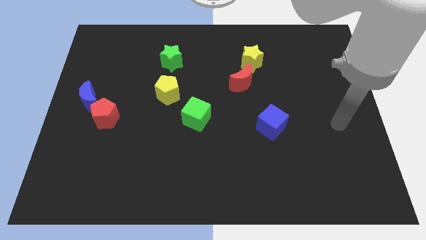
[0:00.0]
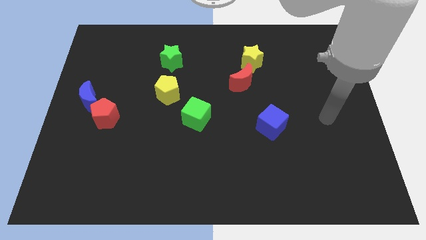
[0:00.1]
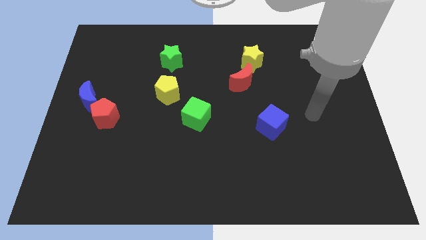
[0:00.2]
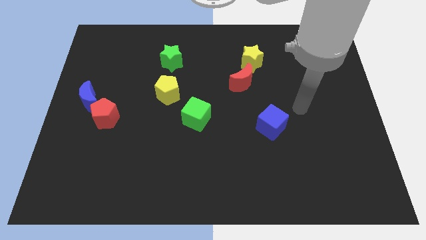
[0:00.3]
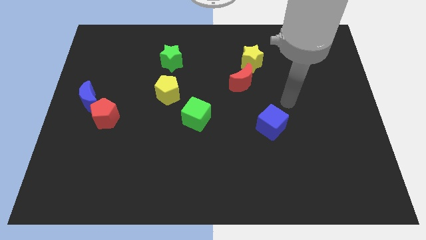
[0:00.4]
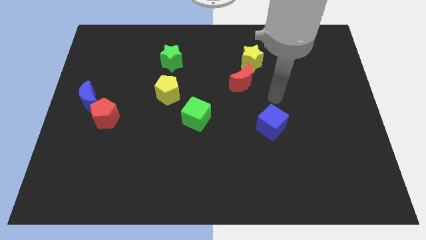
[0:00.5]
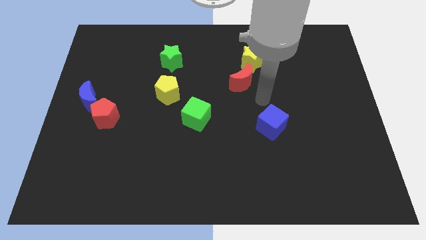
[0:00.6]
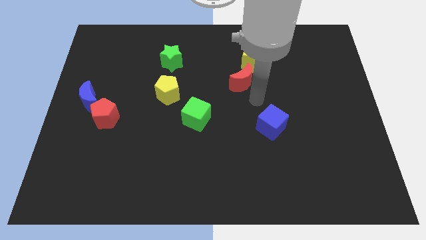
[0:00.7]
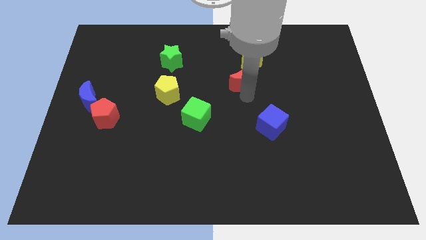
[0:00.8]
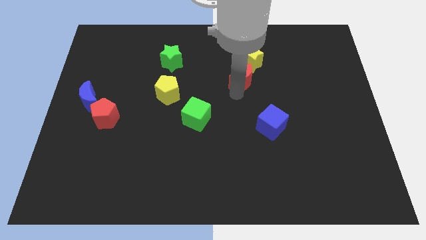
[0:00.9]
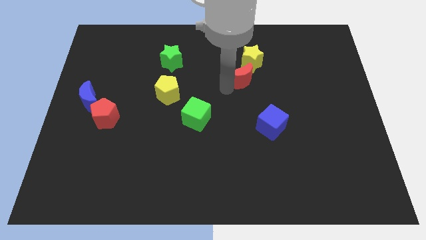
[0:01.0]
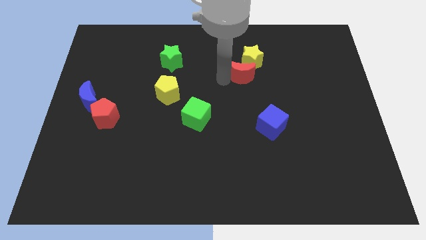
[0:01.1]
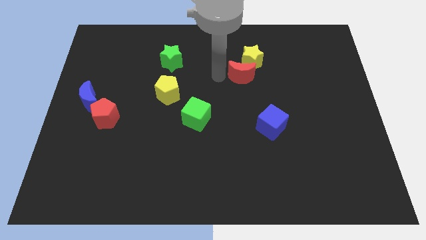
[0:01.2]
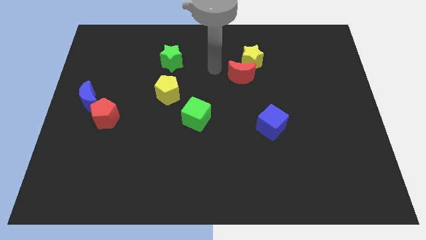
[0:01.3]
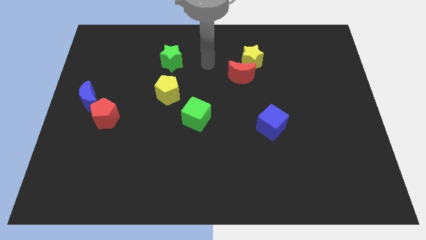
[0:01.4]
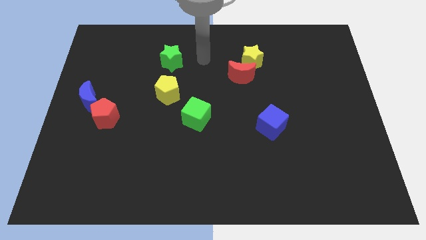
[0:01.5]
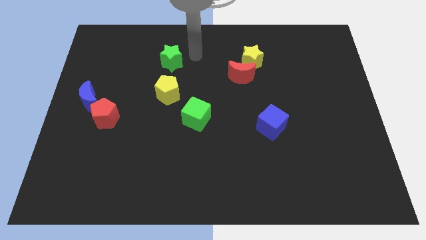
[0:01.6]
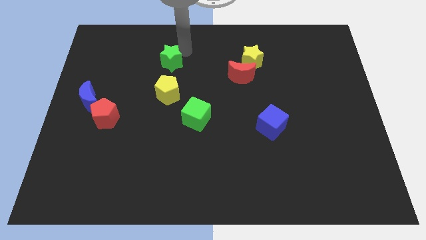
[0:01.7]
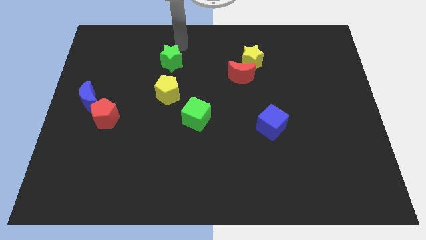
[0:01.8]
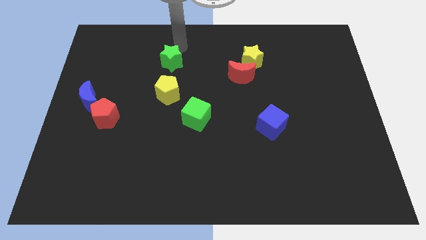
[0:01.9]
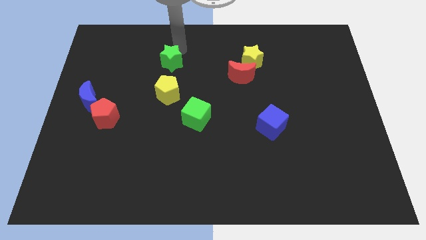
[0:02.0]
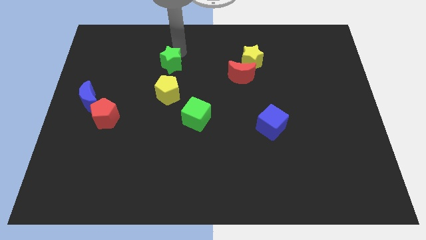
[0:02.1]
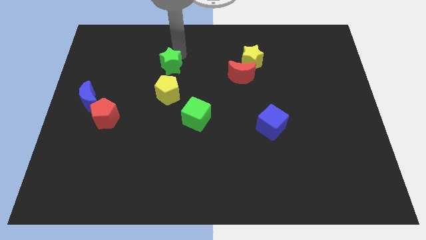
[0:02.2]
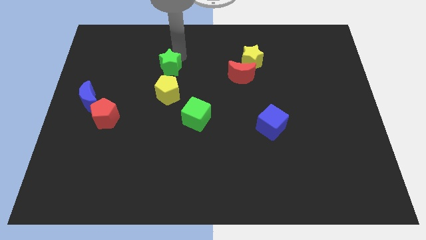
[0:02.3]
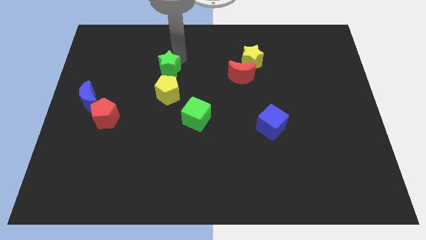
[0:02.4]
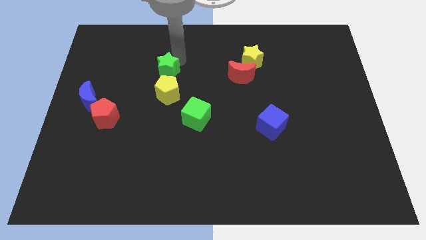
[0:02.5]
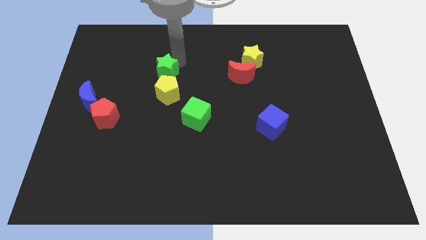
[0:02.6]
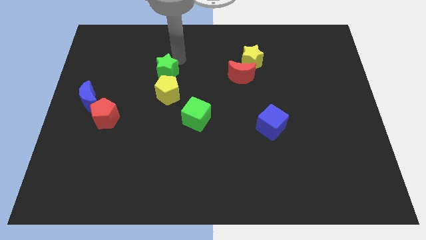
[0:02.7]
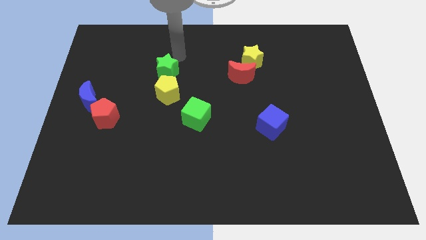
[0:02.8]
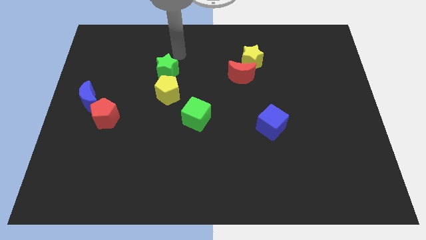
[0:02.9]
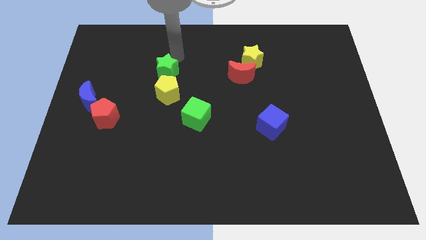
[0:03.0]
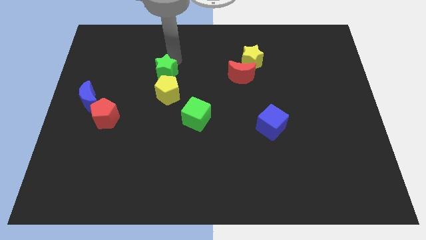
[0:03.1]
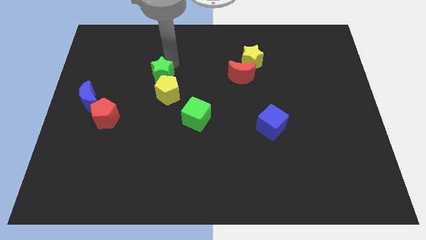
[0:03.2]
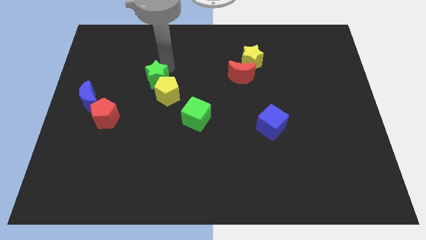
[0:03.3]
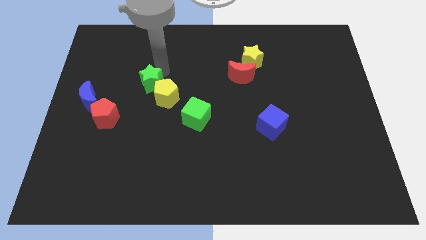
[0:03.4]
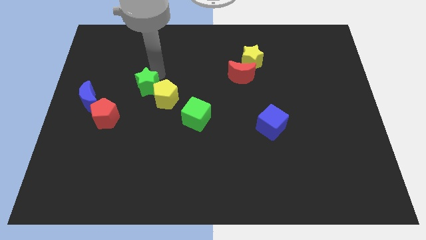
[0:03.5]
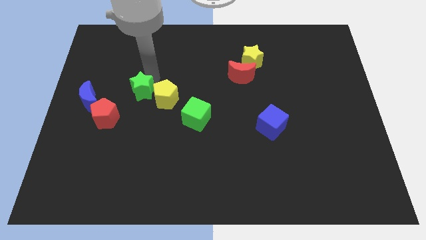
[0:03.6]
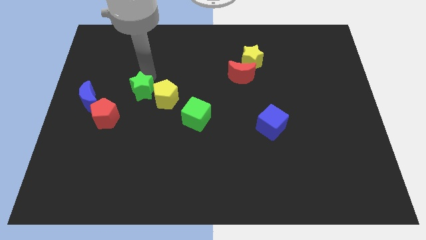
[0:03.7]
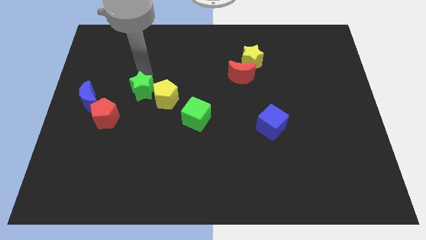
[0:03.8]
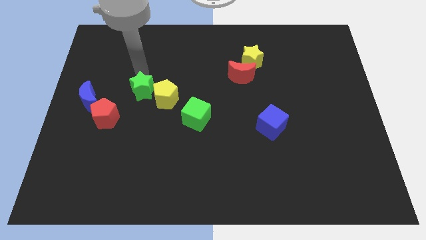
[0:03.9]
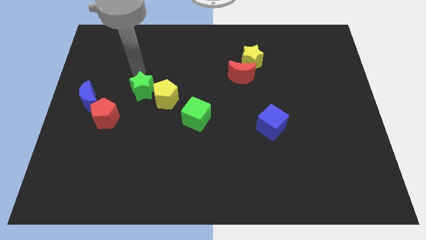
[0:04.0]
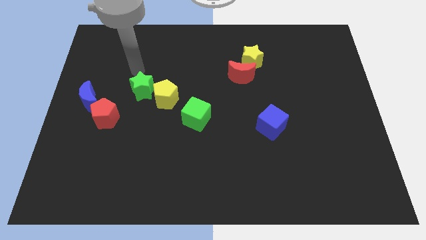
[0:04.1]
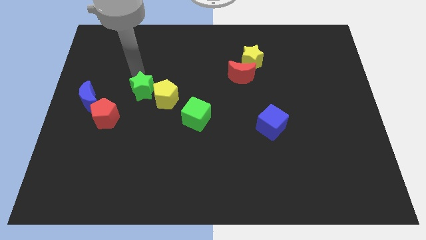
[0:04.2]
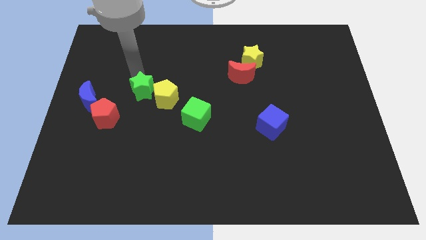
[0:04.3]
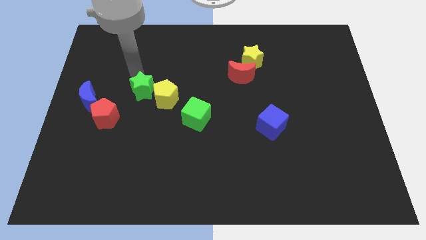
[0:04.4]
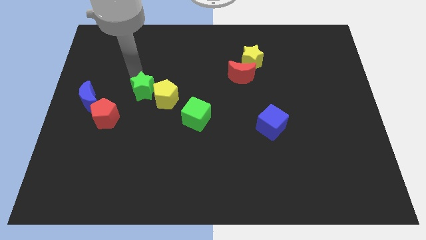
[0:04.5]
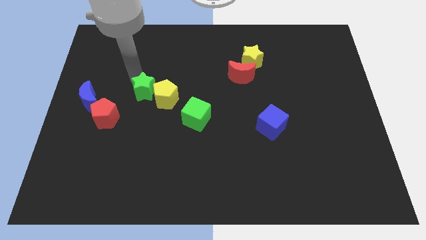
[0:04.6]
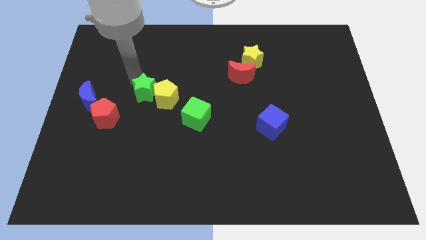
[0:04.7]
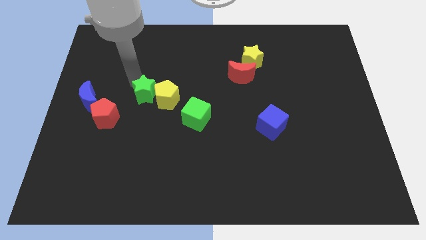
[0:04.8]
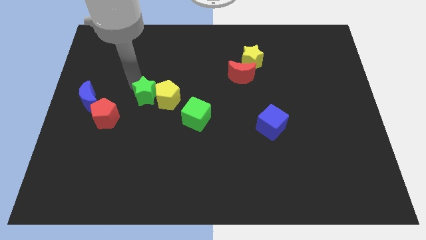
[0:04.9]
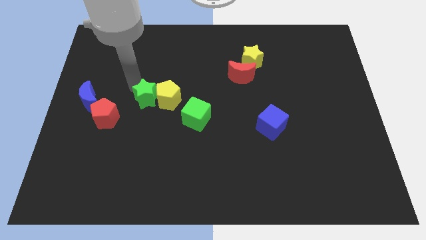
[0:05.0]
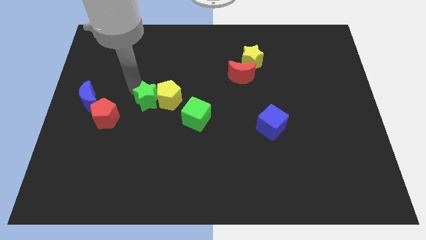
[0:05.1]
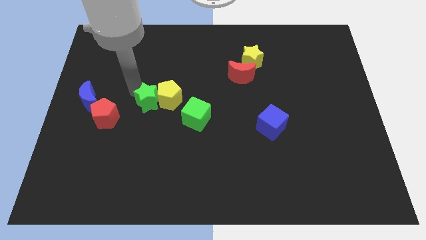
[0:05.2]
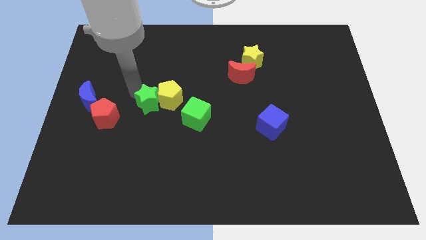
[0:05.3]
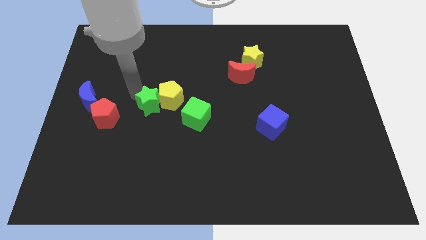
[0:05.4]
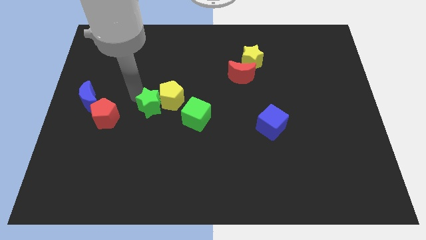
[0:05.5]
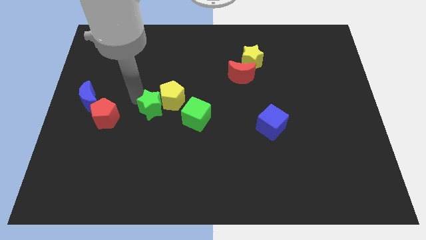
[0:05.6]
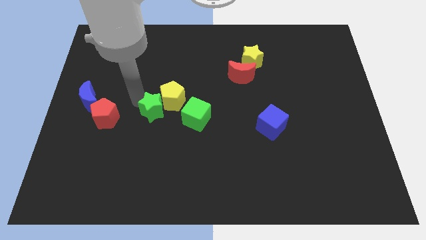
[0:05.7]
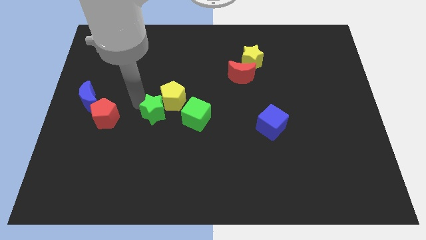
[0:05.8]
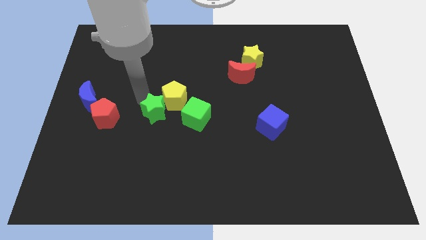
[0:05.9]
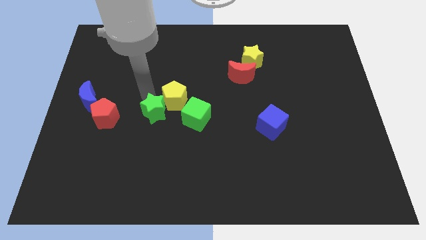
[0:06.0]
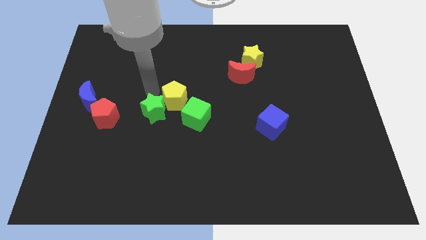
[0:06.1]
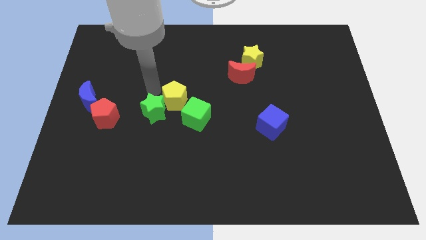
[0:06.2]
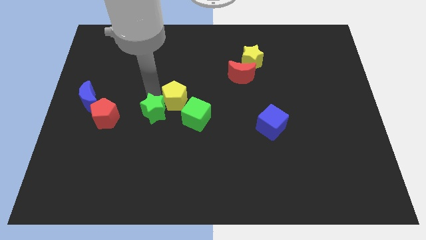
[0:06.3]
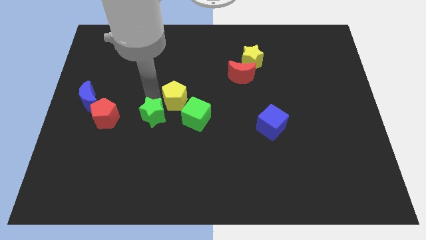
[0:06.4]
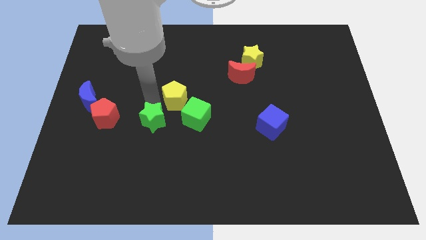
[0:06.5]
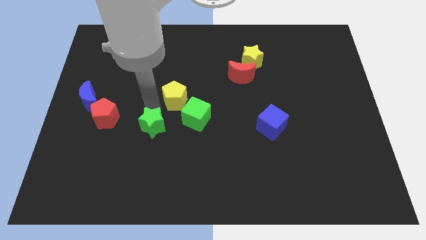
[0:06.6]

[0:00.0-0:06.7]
push the green star downwards

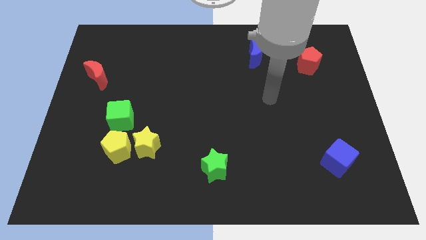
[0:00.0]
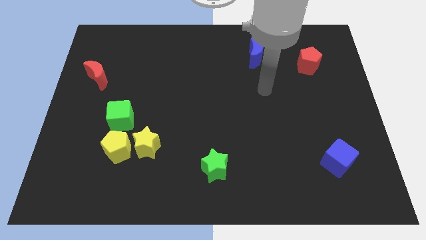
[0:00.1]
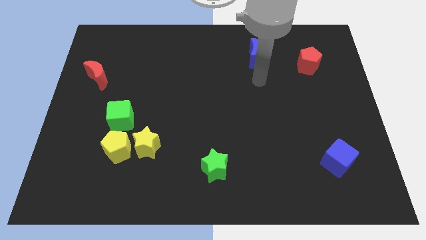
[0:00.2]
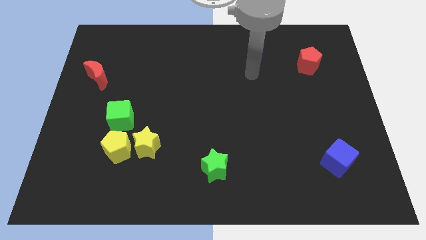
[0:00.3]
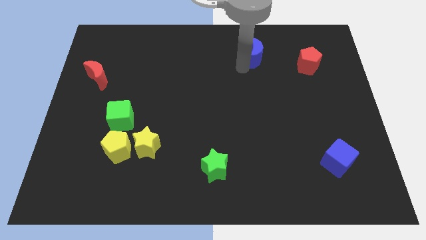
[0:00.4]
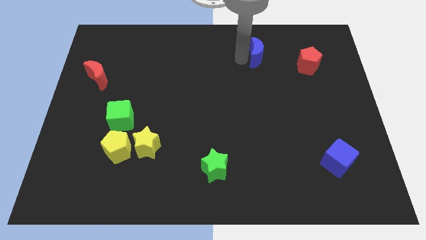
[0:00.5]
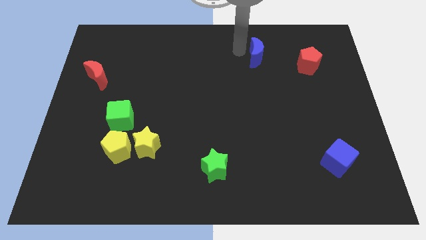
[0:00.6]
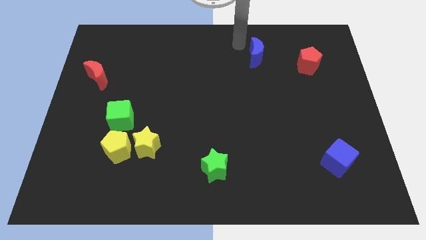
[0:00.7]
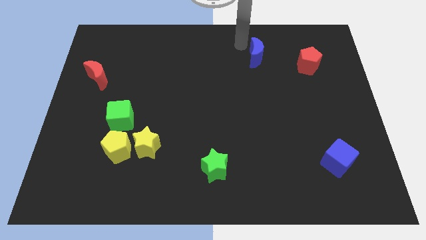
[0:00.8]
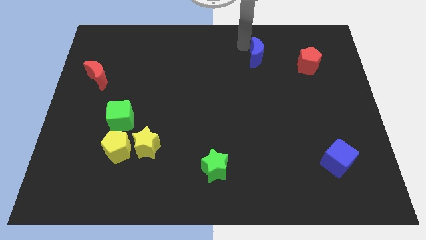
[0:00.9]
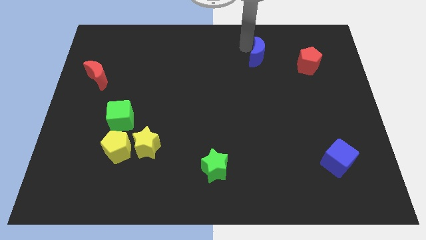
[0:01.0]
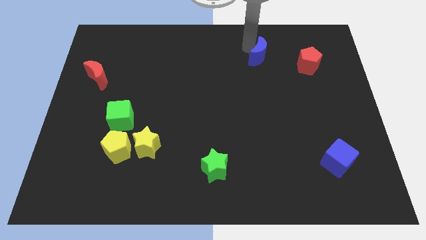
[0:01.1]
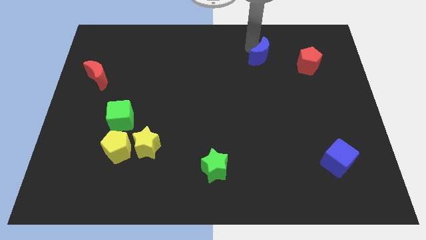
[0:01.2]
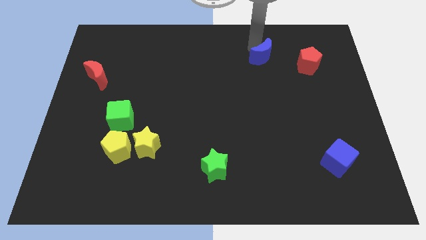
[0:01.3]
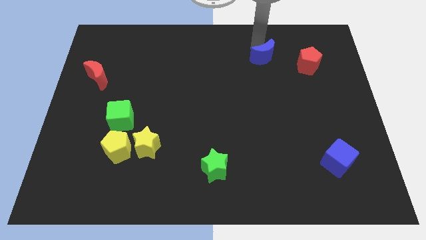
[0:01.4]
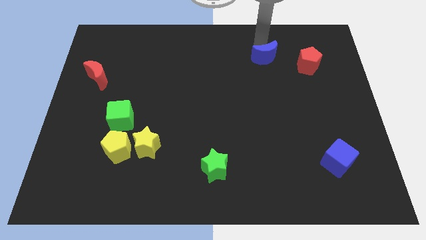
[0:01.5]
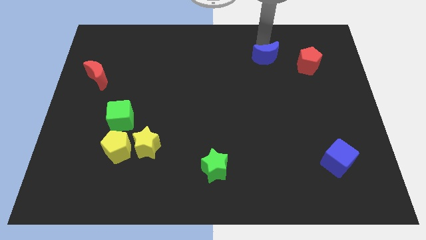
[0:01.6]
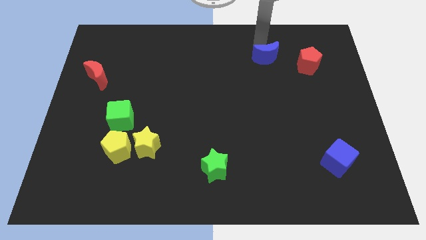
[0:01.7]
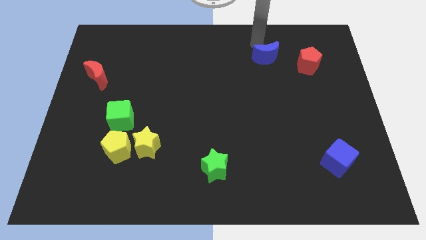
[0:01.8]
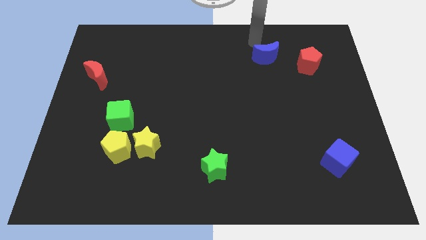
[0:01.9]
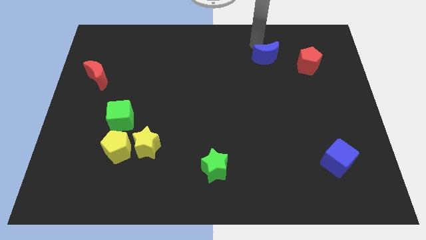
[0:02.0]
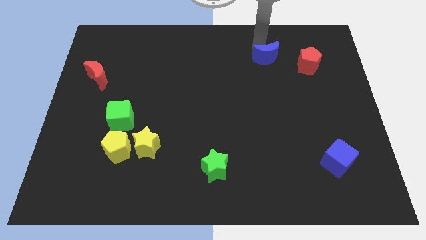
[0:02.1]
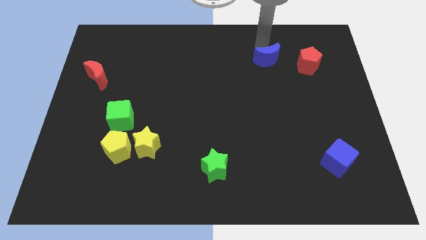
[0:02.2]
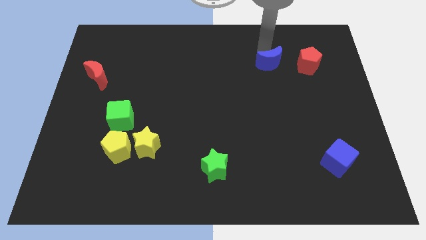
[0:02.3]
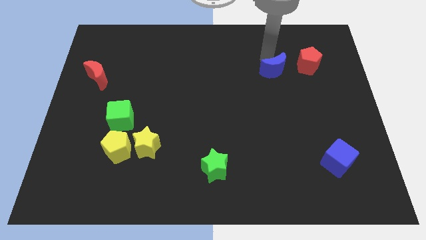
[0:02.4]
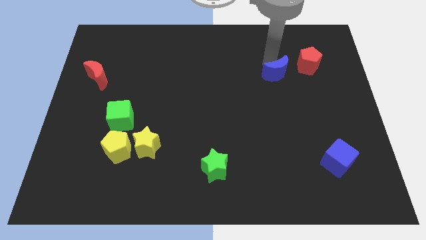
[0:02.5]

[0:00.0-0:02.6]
slide the blue moon a bit downwards and to the right
